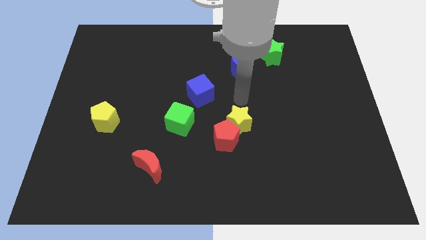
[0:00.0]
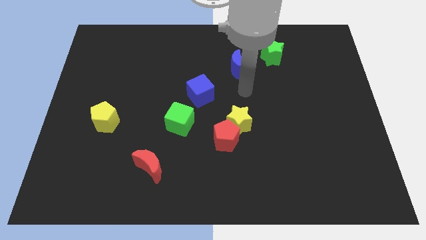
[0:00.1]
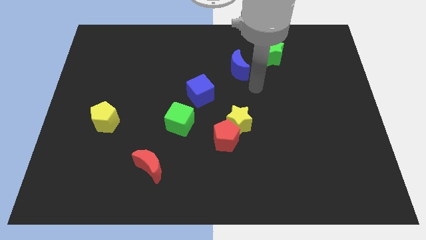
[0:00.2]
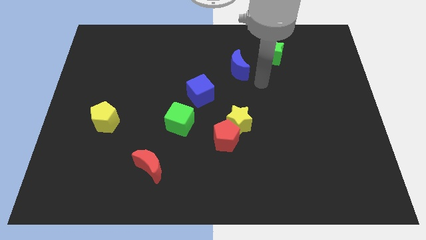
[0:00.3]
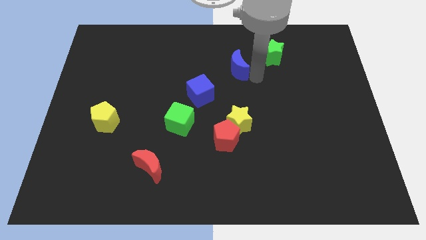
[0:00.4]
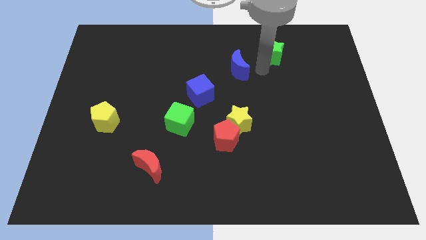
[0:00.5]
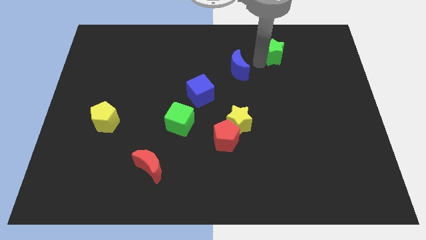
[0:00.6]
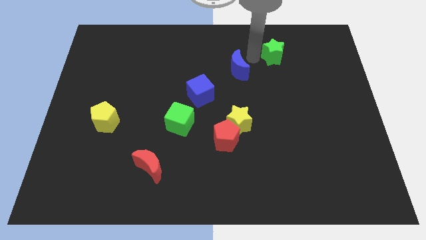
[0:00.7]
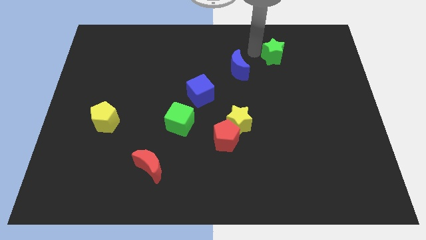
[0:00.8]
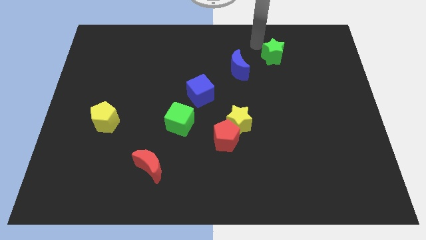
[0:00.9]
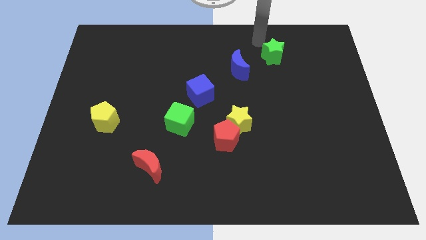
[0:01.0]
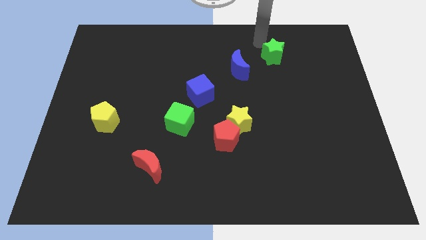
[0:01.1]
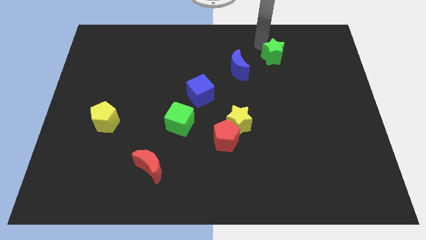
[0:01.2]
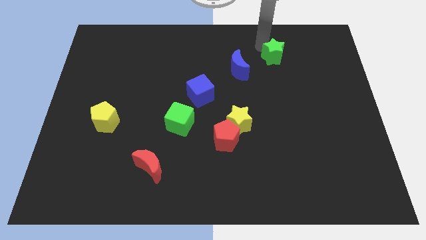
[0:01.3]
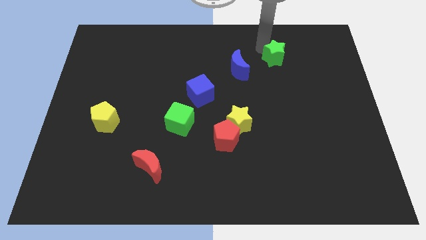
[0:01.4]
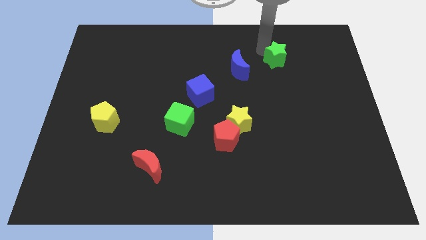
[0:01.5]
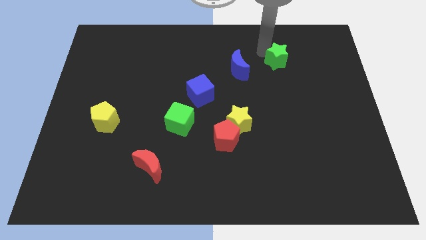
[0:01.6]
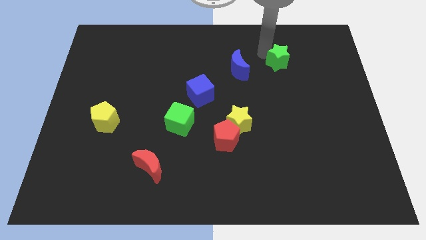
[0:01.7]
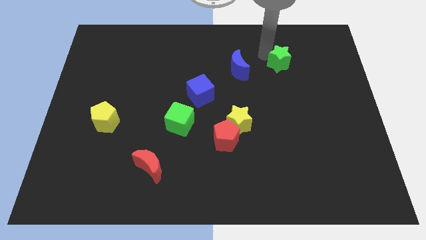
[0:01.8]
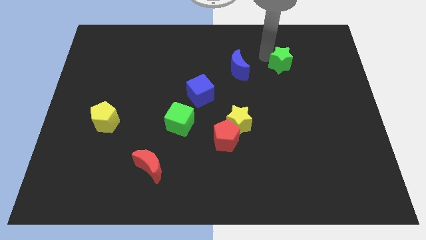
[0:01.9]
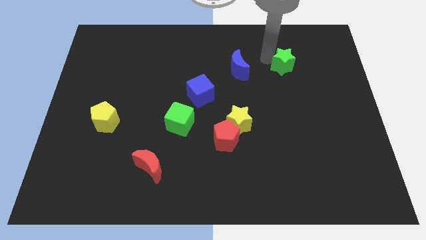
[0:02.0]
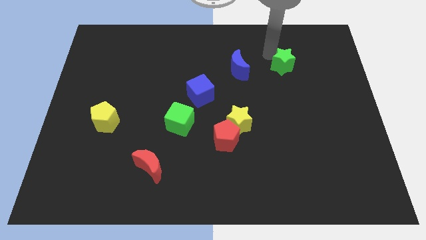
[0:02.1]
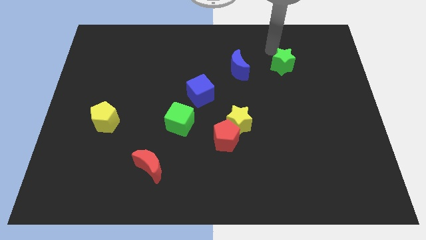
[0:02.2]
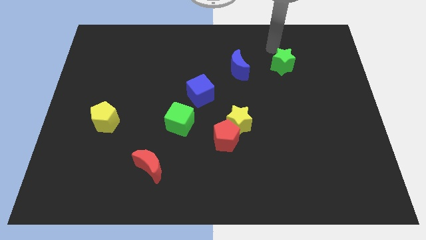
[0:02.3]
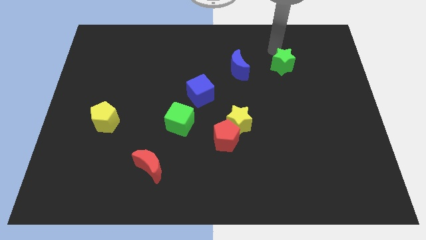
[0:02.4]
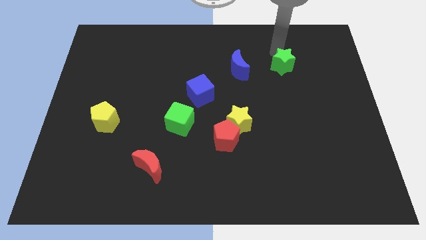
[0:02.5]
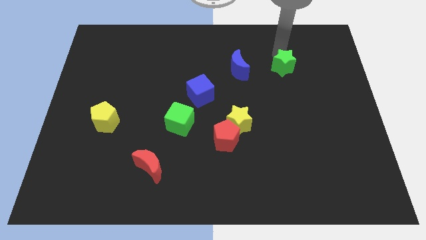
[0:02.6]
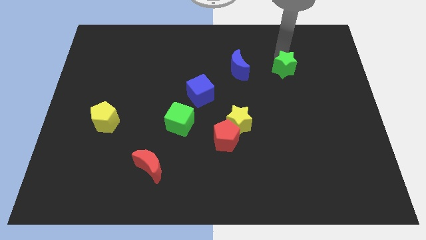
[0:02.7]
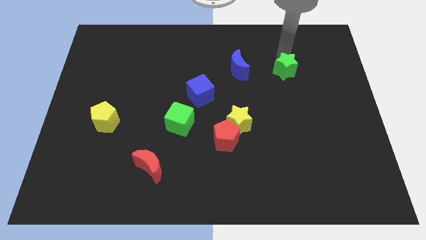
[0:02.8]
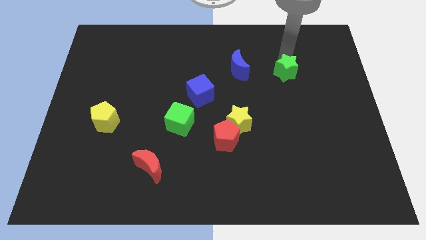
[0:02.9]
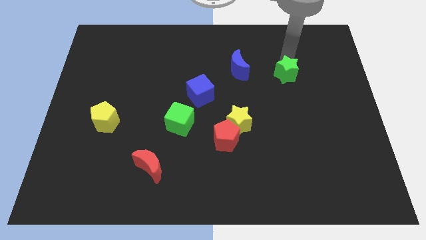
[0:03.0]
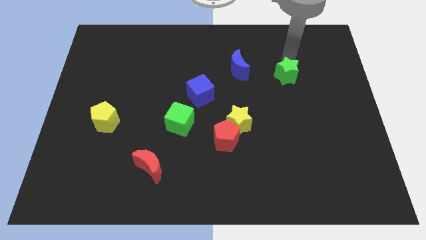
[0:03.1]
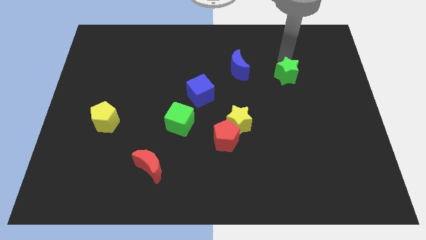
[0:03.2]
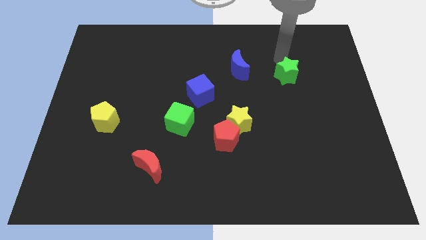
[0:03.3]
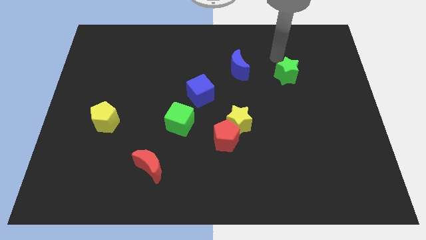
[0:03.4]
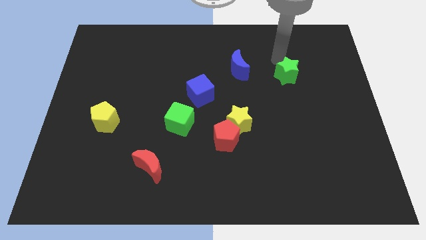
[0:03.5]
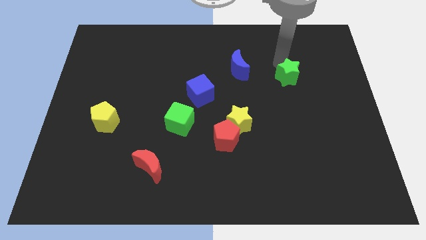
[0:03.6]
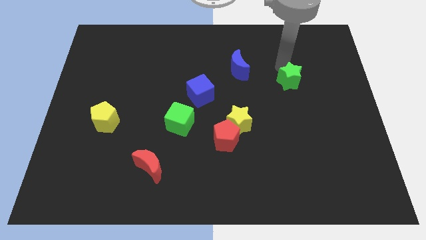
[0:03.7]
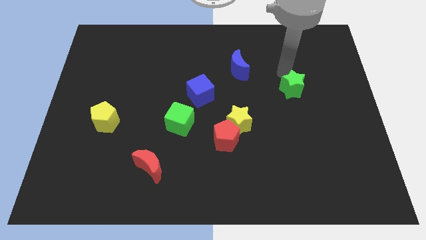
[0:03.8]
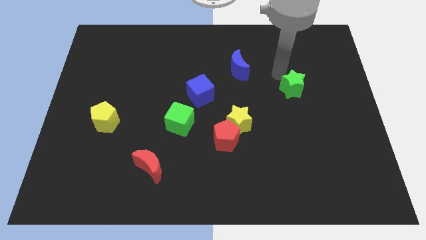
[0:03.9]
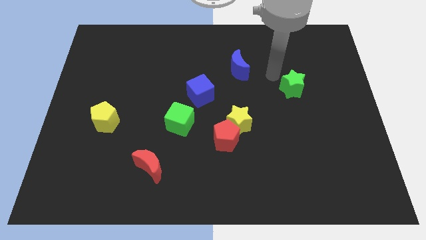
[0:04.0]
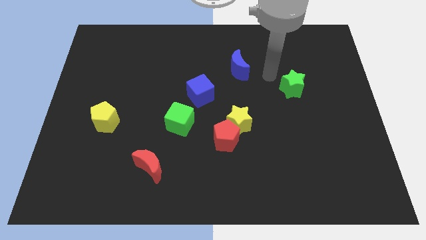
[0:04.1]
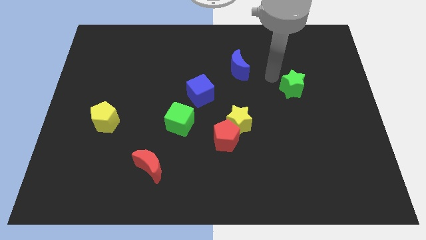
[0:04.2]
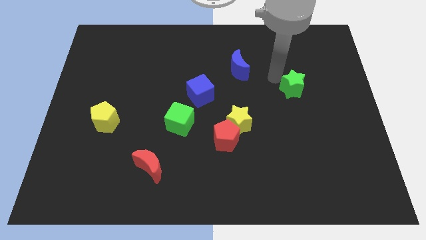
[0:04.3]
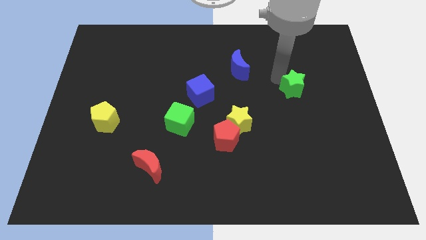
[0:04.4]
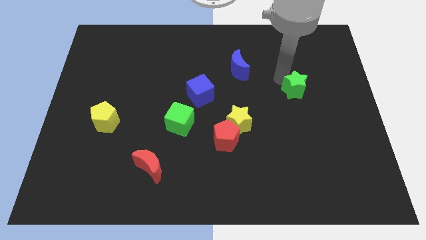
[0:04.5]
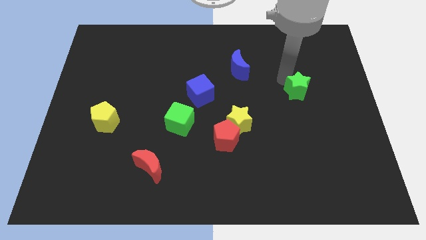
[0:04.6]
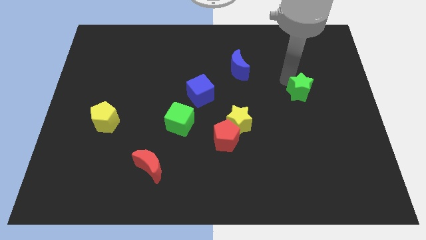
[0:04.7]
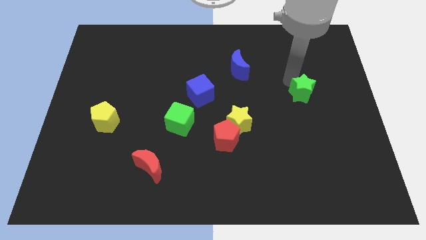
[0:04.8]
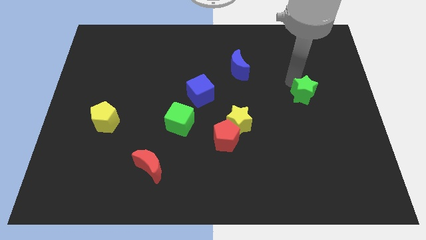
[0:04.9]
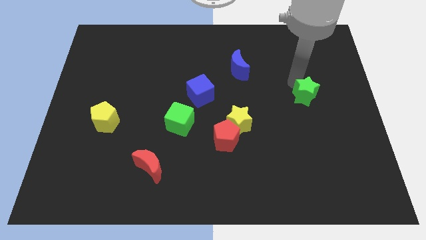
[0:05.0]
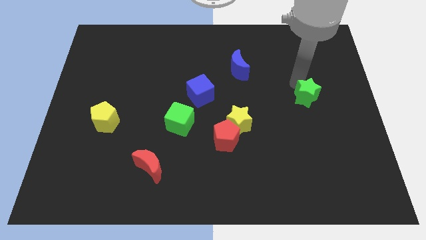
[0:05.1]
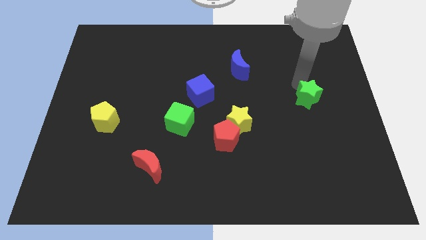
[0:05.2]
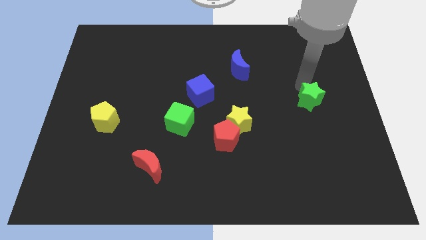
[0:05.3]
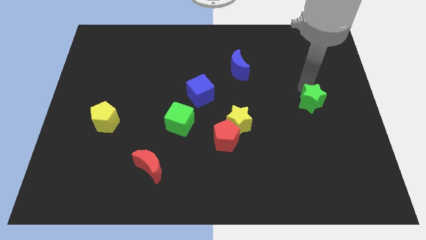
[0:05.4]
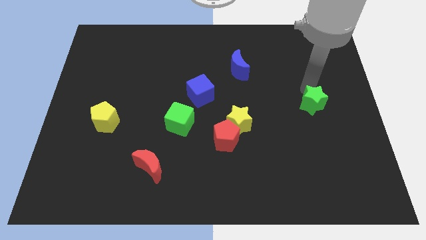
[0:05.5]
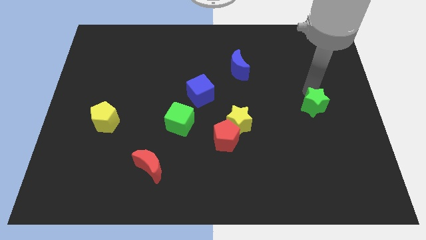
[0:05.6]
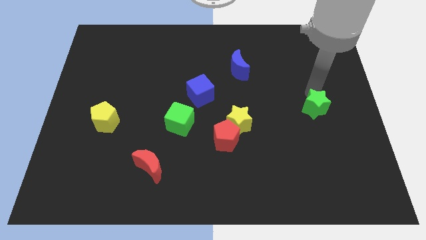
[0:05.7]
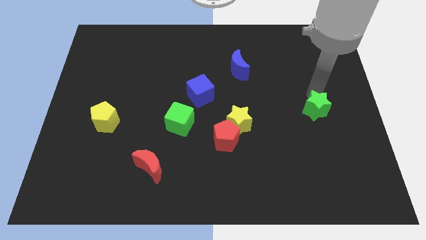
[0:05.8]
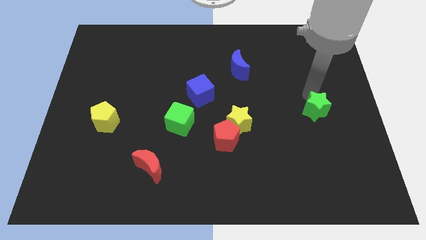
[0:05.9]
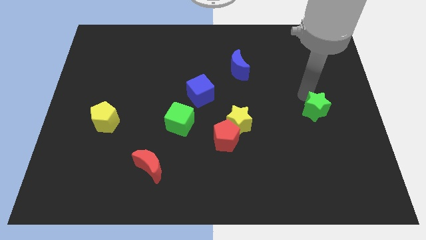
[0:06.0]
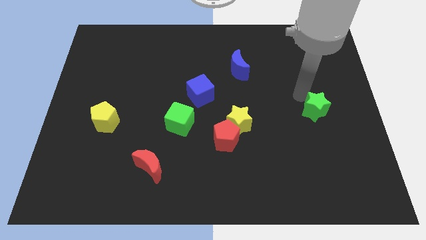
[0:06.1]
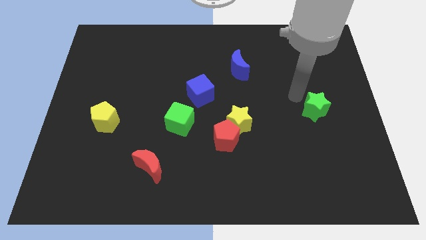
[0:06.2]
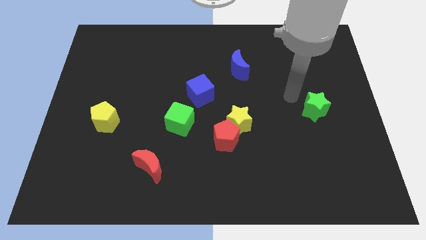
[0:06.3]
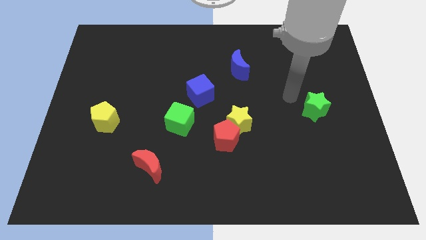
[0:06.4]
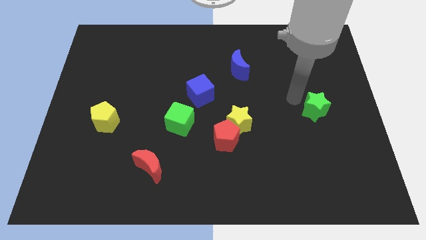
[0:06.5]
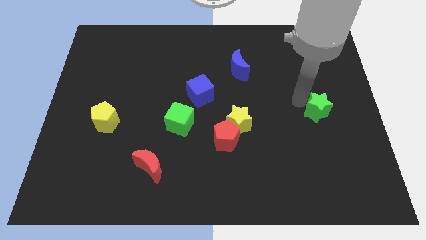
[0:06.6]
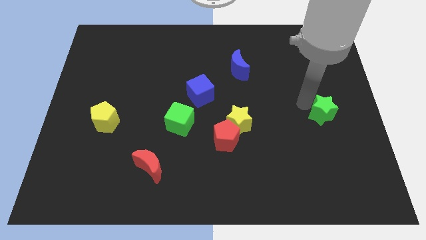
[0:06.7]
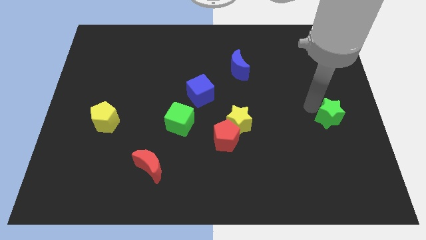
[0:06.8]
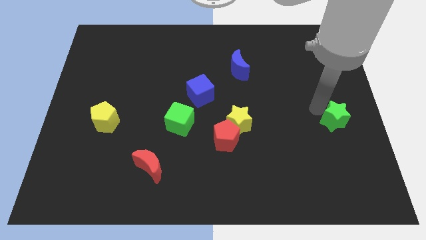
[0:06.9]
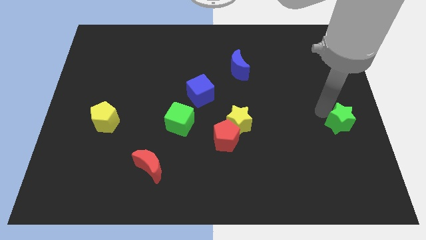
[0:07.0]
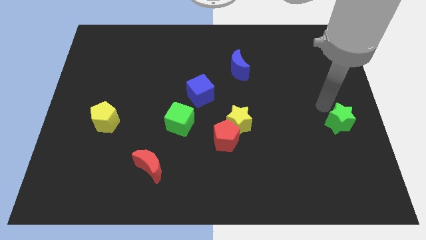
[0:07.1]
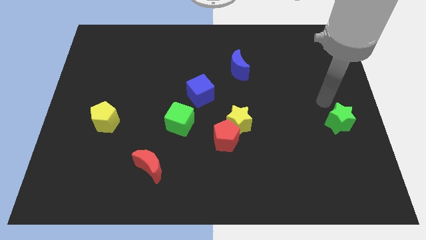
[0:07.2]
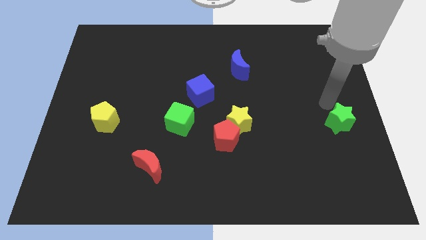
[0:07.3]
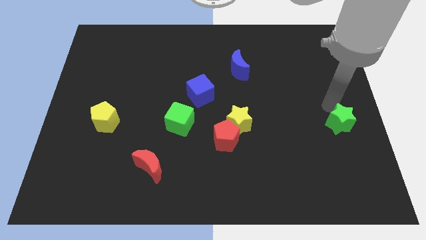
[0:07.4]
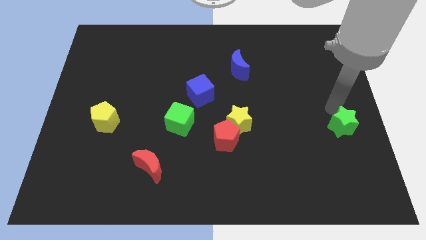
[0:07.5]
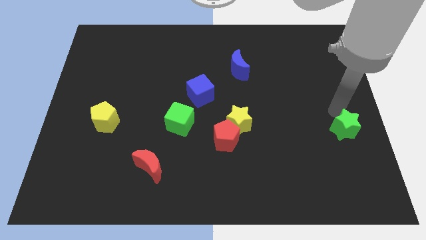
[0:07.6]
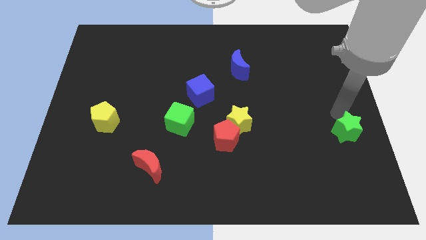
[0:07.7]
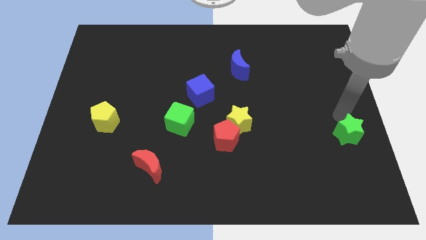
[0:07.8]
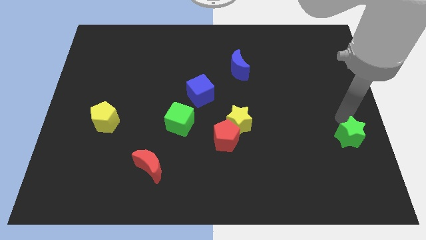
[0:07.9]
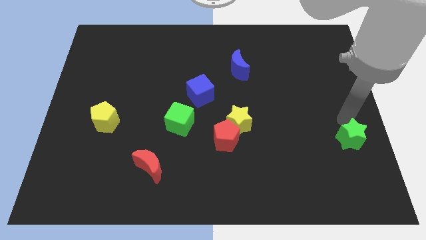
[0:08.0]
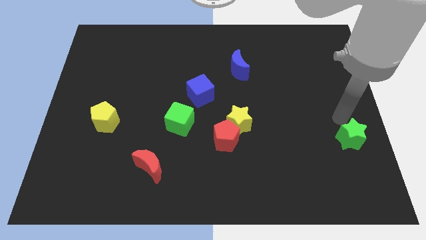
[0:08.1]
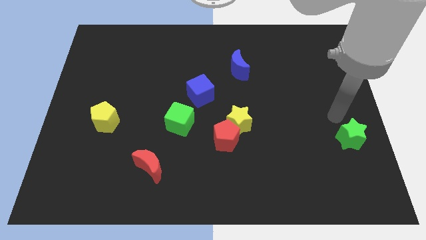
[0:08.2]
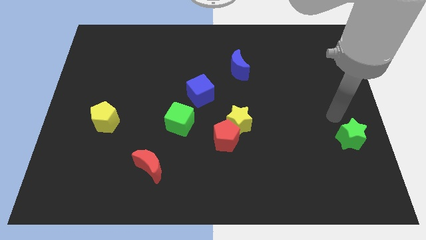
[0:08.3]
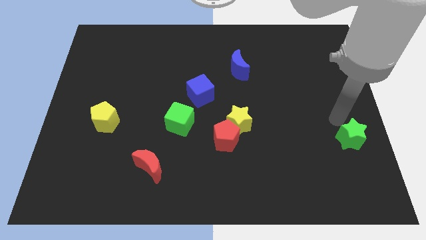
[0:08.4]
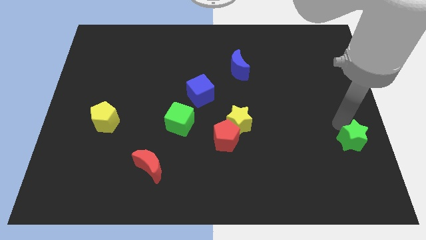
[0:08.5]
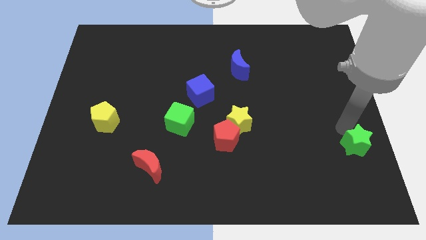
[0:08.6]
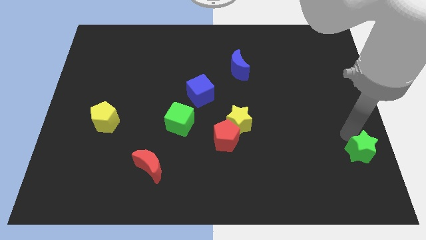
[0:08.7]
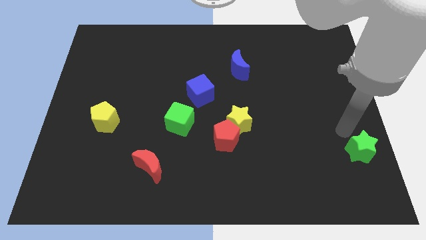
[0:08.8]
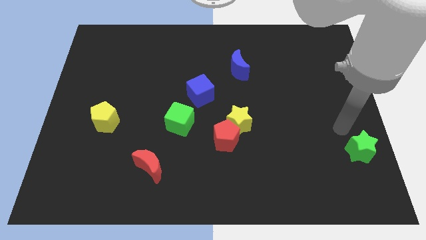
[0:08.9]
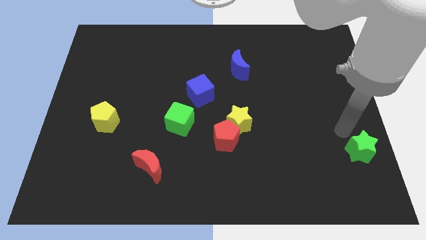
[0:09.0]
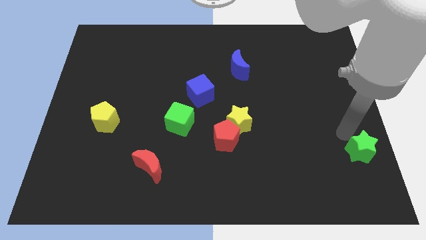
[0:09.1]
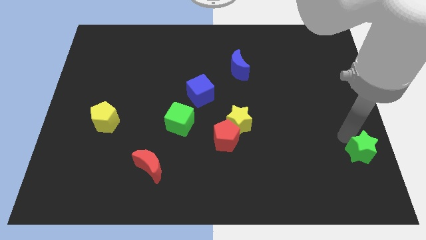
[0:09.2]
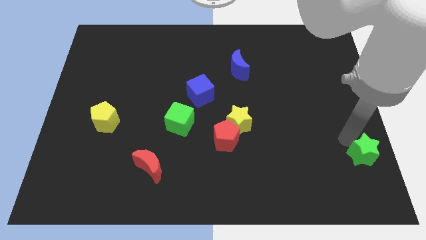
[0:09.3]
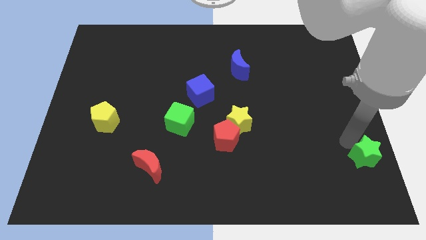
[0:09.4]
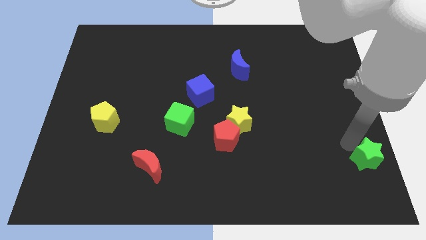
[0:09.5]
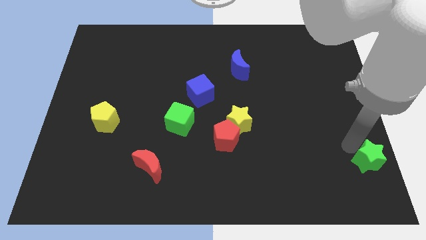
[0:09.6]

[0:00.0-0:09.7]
put the green star to the bottom right corner
